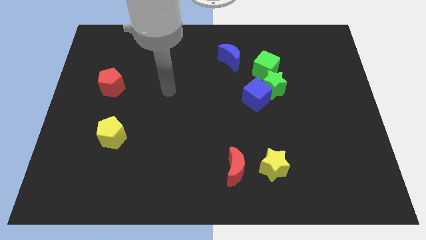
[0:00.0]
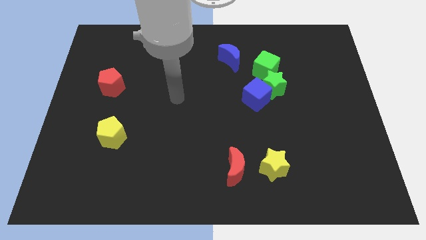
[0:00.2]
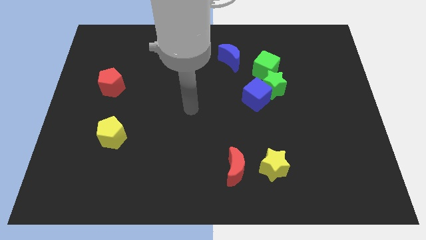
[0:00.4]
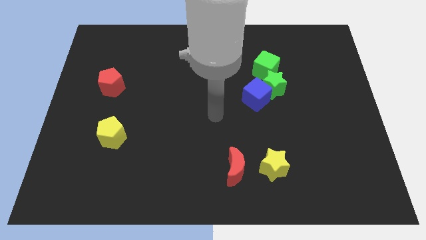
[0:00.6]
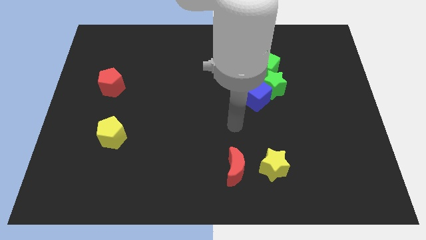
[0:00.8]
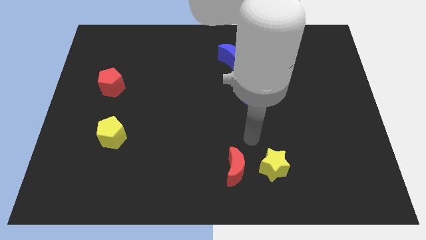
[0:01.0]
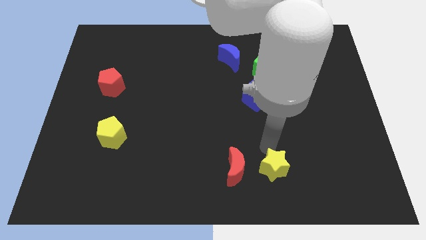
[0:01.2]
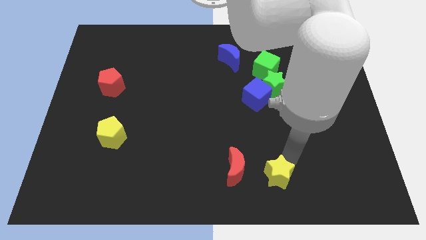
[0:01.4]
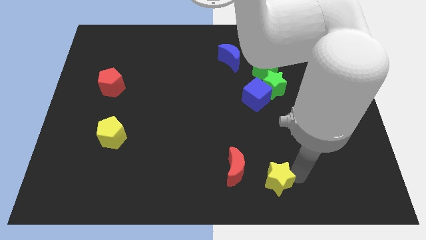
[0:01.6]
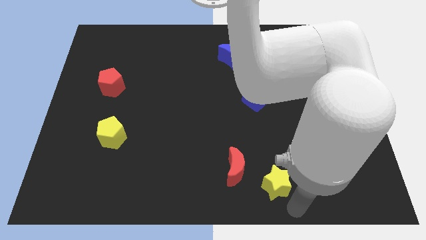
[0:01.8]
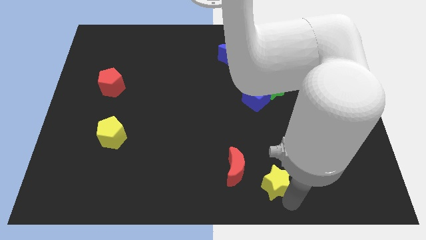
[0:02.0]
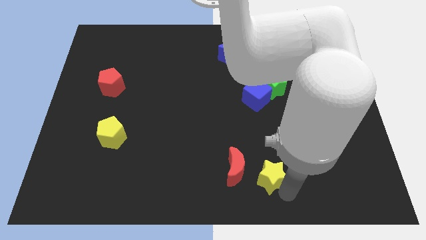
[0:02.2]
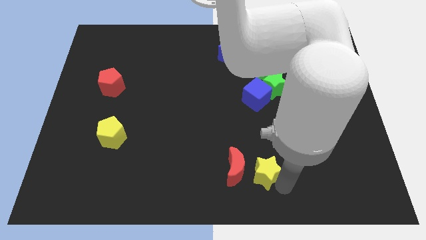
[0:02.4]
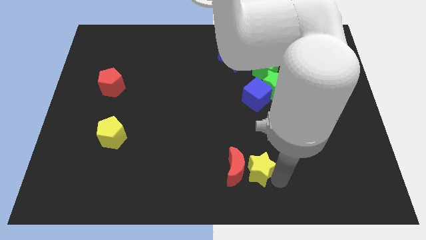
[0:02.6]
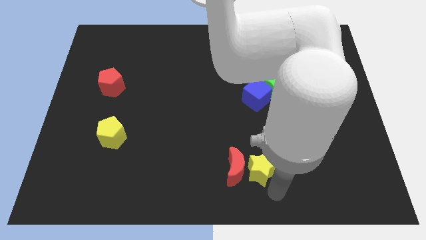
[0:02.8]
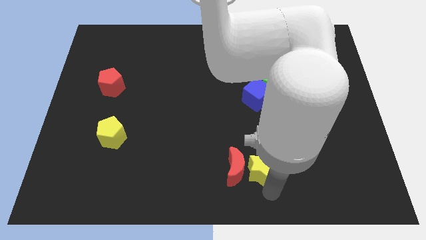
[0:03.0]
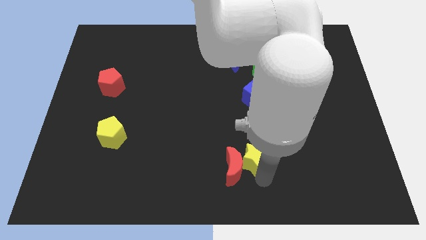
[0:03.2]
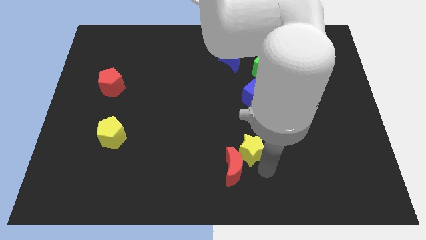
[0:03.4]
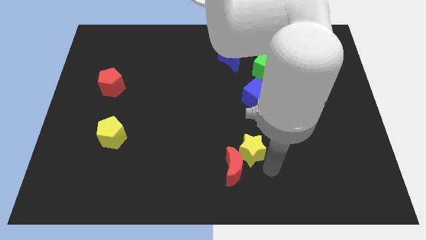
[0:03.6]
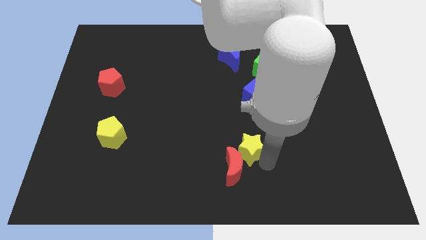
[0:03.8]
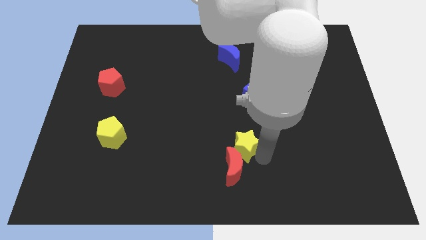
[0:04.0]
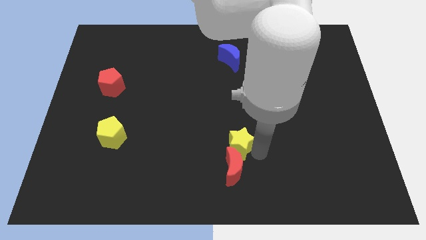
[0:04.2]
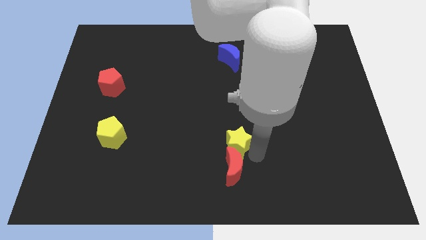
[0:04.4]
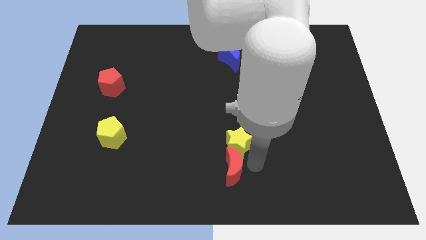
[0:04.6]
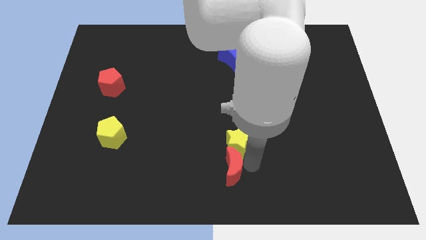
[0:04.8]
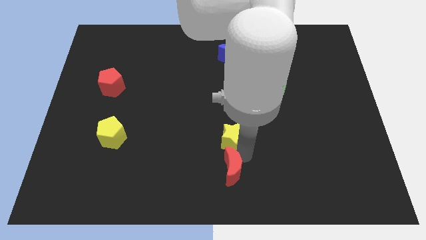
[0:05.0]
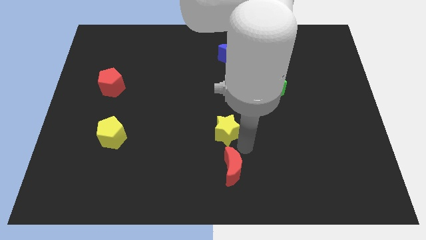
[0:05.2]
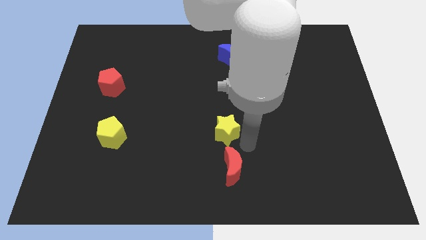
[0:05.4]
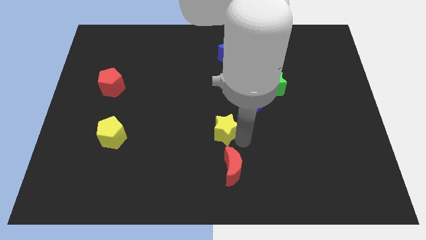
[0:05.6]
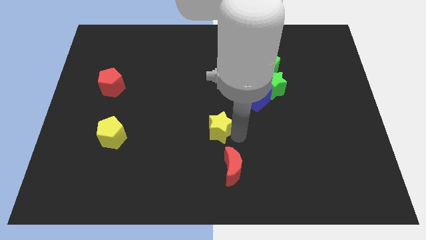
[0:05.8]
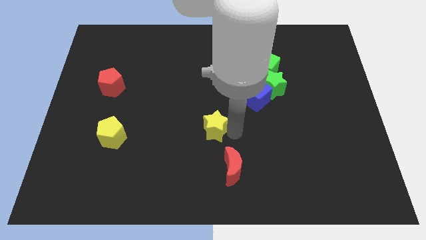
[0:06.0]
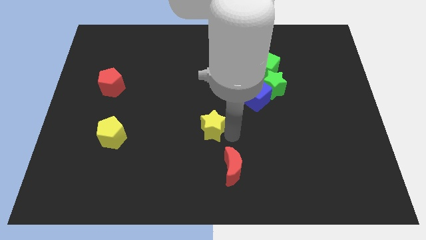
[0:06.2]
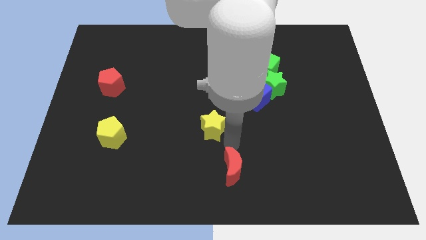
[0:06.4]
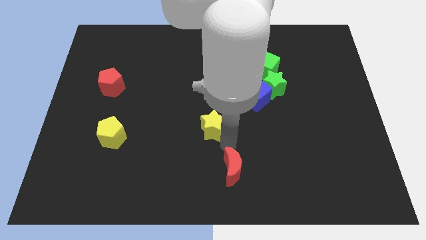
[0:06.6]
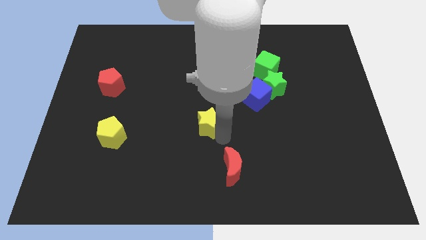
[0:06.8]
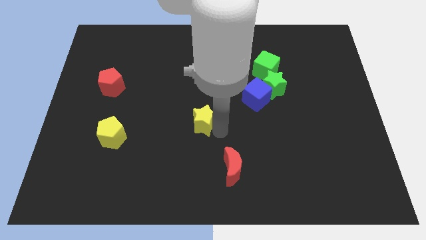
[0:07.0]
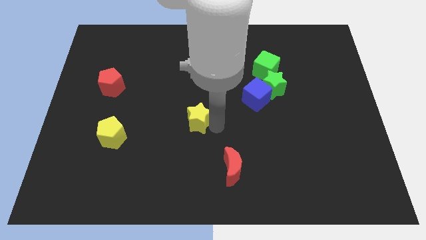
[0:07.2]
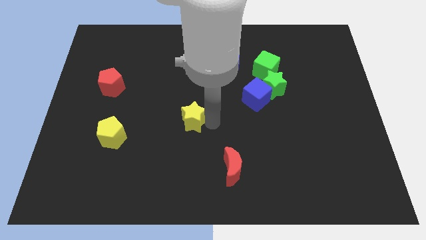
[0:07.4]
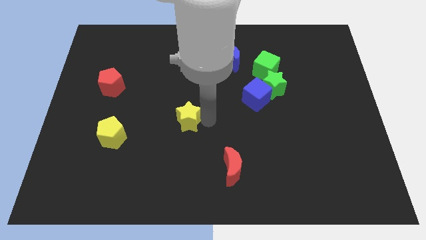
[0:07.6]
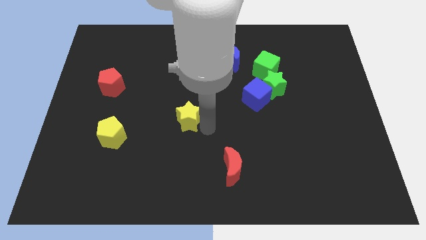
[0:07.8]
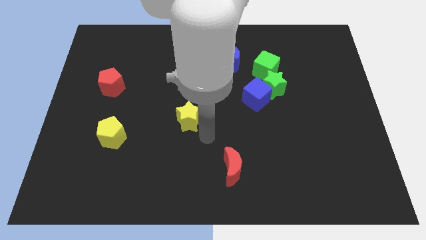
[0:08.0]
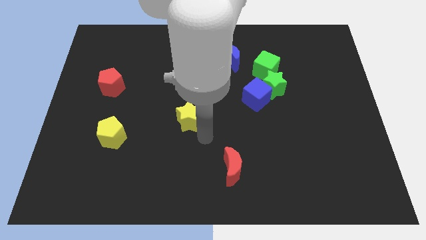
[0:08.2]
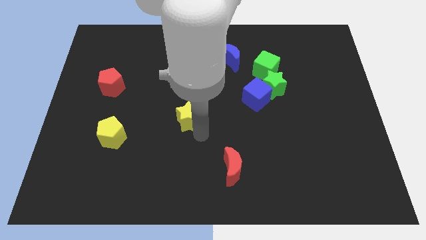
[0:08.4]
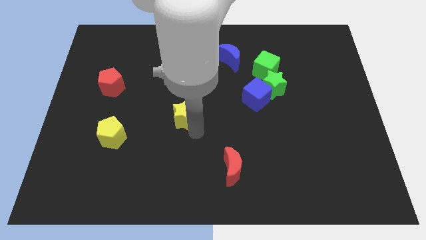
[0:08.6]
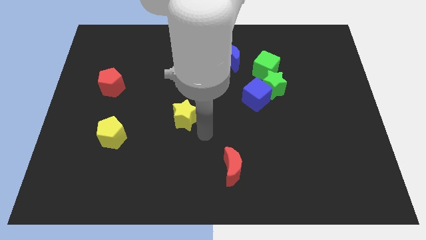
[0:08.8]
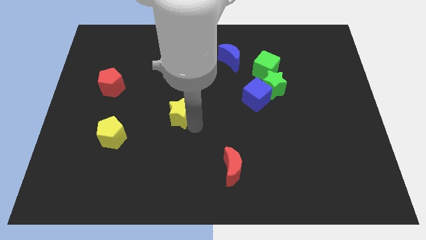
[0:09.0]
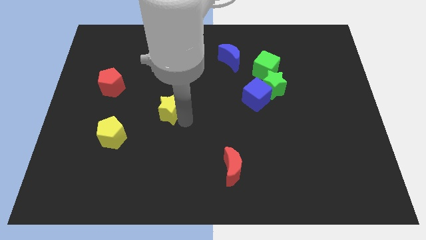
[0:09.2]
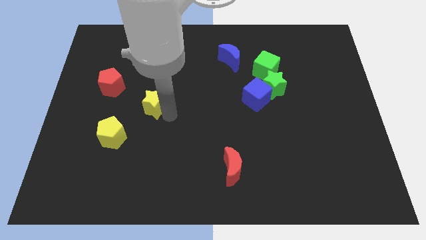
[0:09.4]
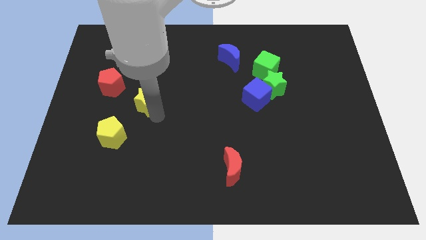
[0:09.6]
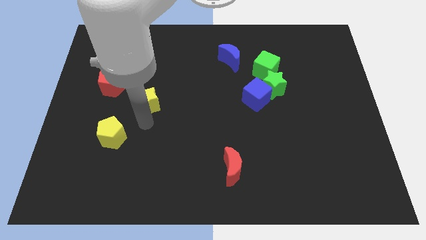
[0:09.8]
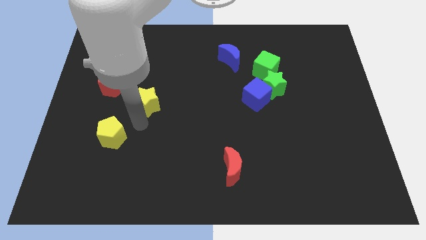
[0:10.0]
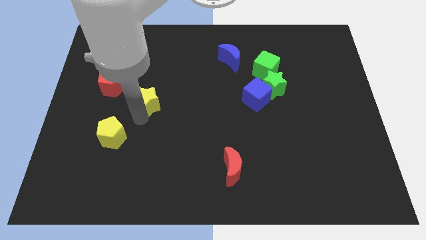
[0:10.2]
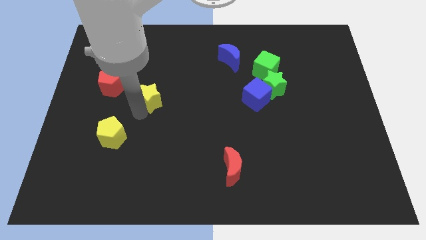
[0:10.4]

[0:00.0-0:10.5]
move the yellow star right of the red pentagon

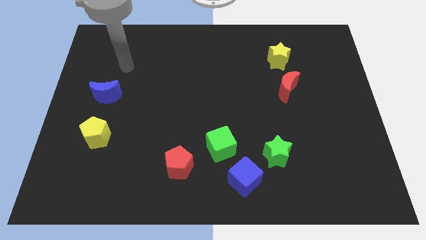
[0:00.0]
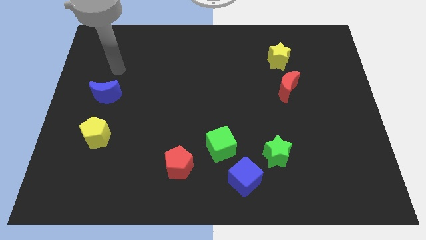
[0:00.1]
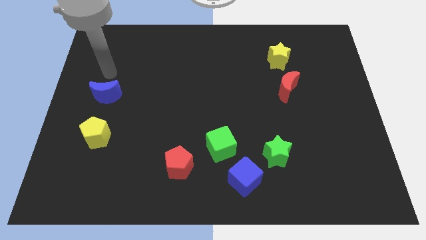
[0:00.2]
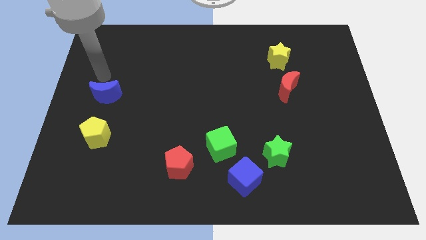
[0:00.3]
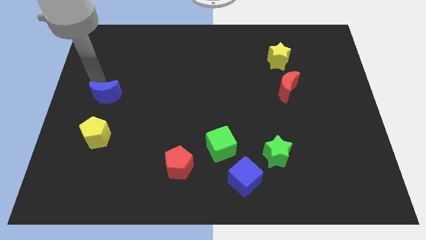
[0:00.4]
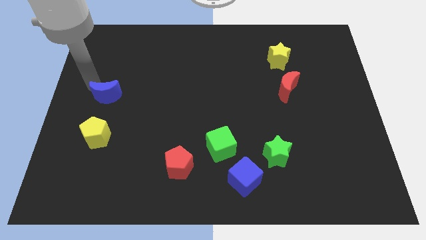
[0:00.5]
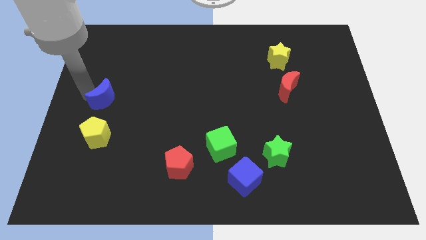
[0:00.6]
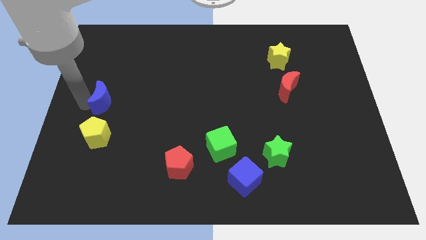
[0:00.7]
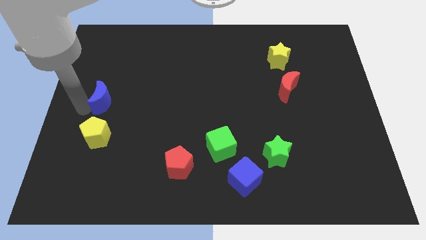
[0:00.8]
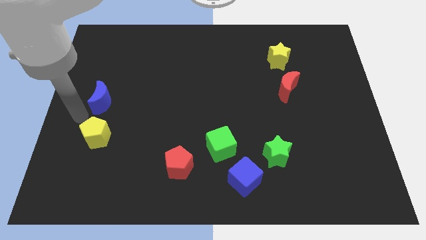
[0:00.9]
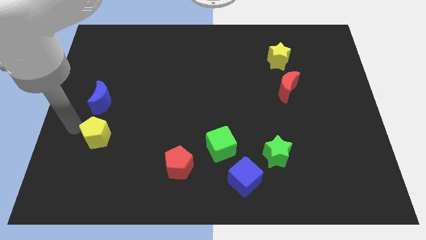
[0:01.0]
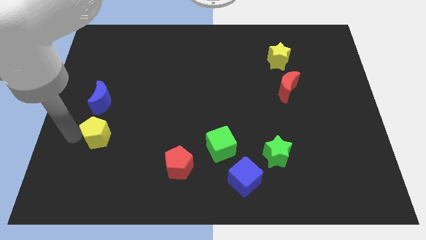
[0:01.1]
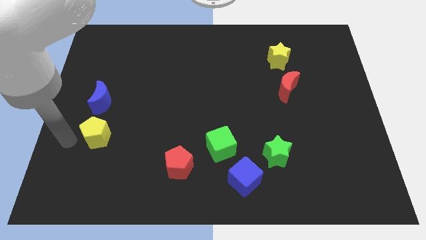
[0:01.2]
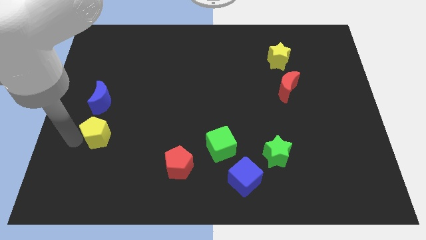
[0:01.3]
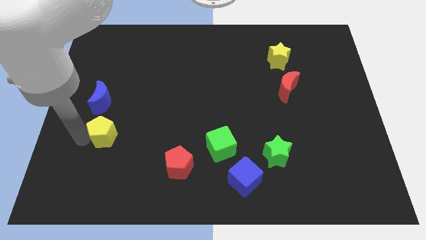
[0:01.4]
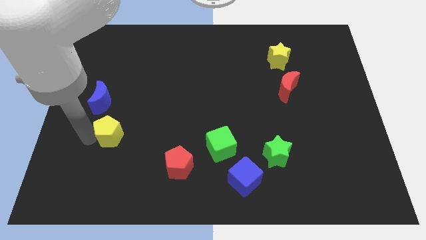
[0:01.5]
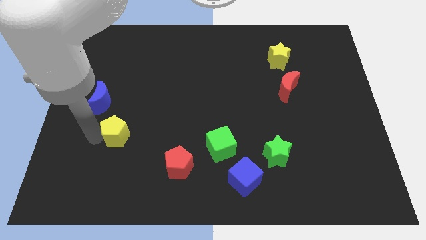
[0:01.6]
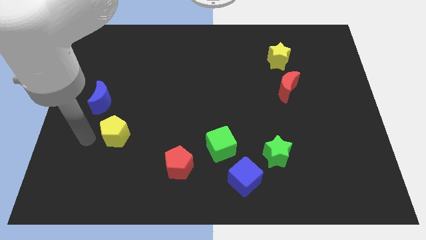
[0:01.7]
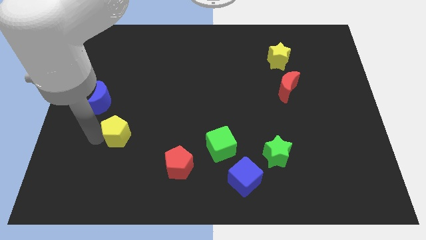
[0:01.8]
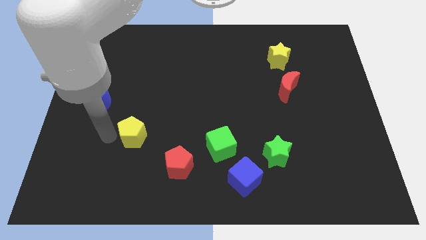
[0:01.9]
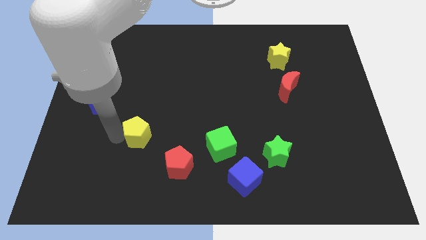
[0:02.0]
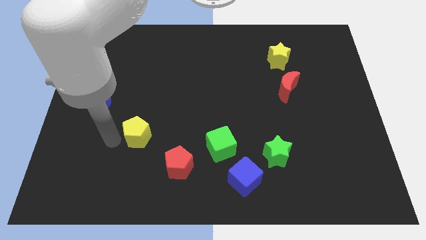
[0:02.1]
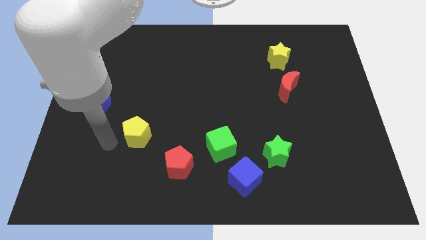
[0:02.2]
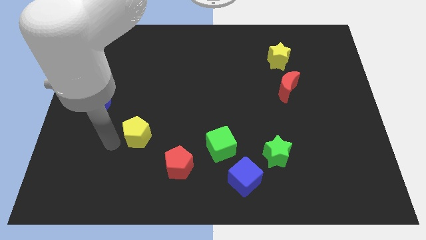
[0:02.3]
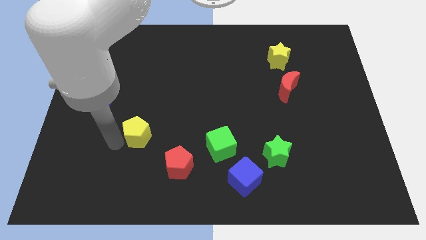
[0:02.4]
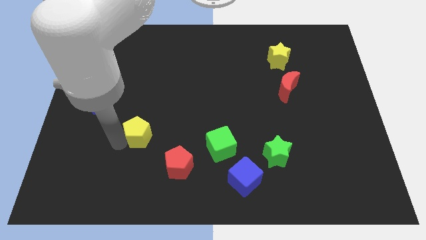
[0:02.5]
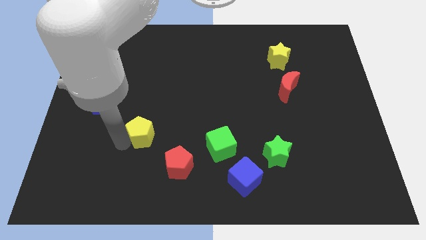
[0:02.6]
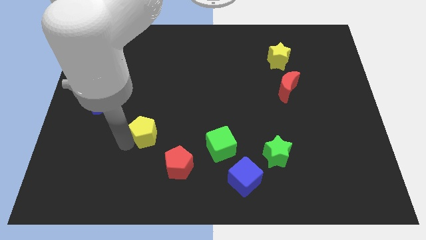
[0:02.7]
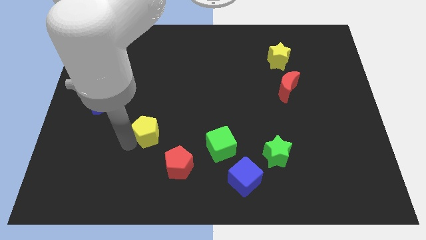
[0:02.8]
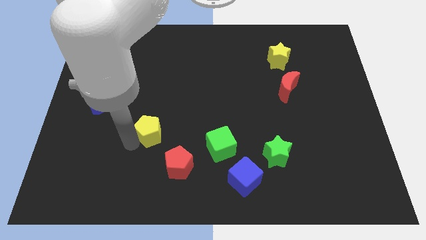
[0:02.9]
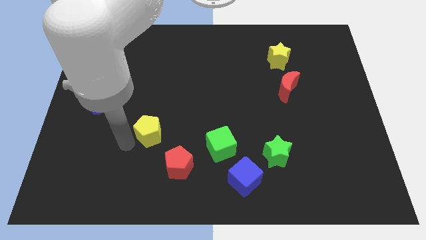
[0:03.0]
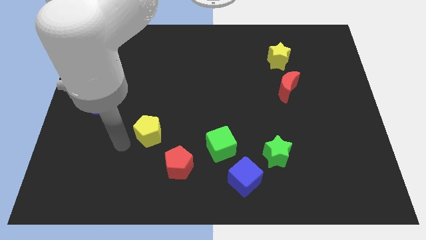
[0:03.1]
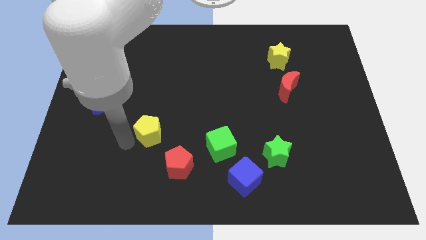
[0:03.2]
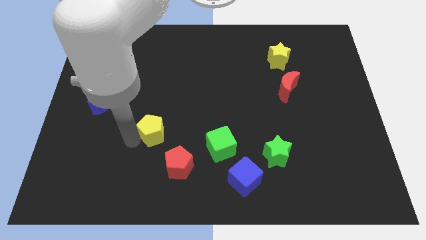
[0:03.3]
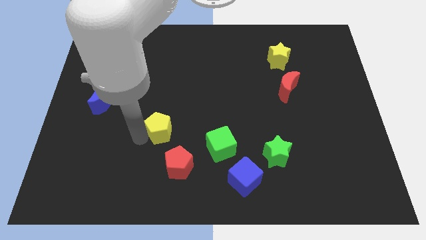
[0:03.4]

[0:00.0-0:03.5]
put the yellow pentagon above the red pentagon
